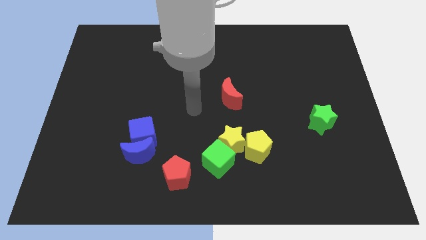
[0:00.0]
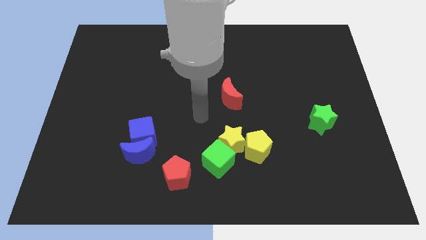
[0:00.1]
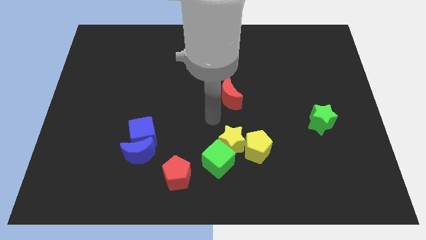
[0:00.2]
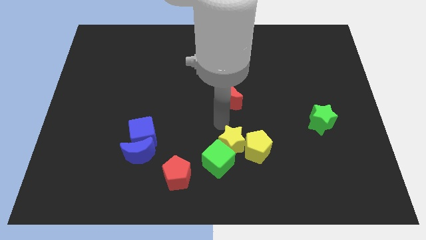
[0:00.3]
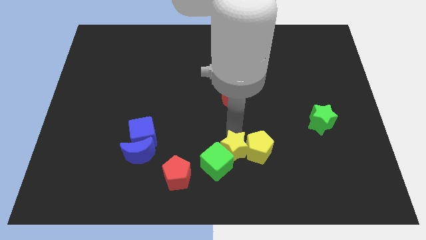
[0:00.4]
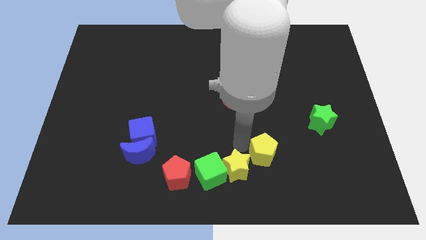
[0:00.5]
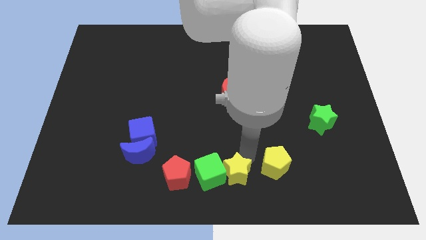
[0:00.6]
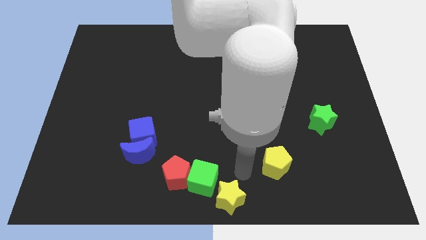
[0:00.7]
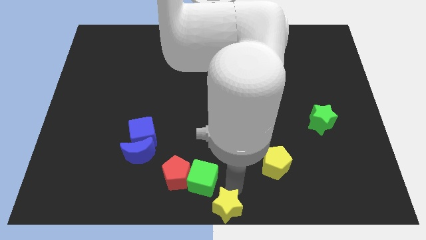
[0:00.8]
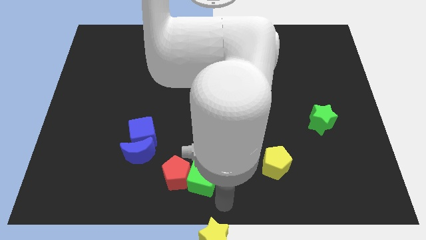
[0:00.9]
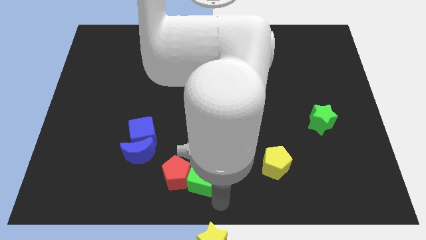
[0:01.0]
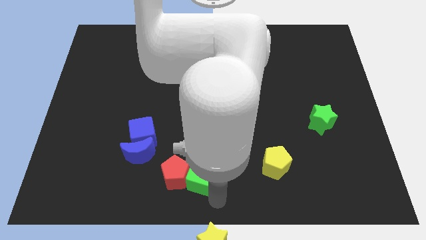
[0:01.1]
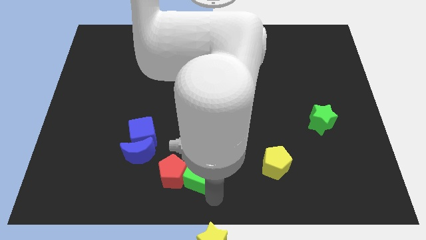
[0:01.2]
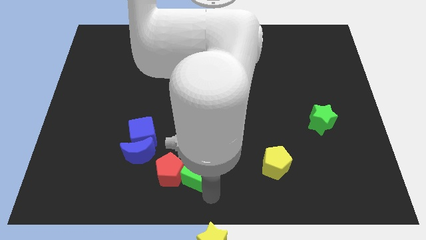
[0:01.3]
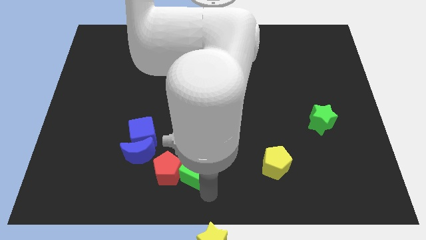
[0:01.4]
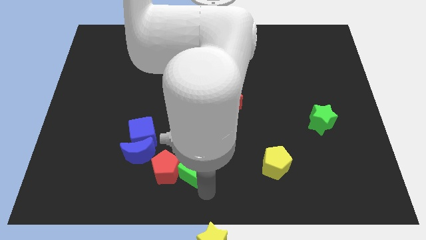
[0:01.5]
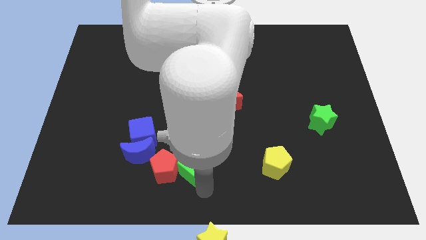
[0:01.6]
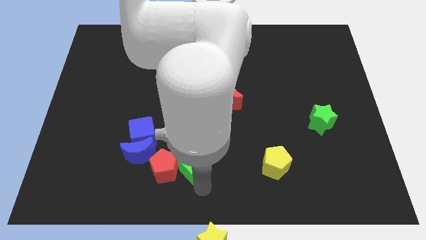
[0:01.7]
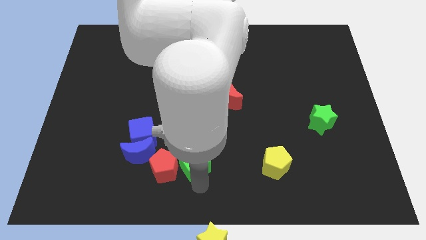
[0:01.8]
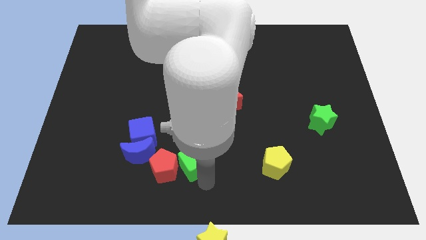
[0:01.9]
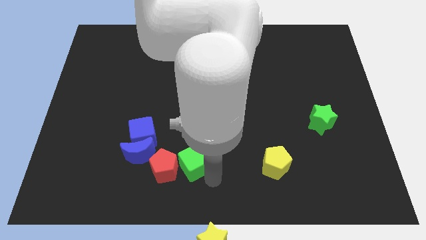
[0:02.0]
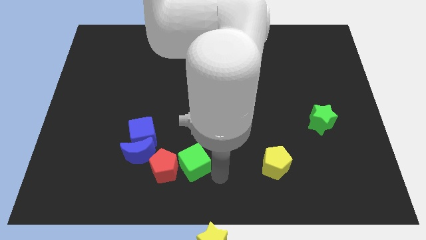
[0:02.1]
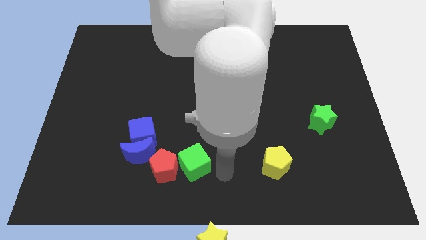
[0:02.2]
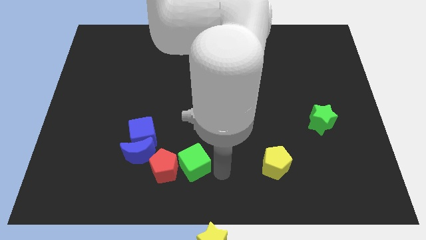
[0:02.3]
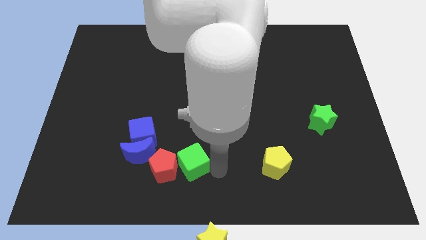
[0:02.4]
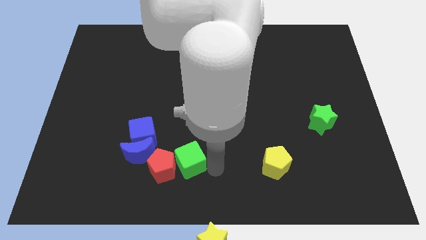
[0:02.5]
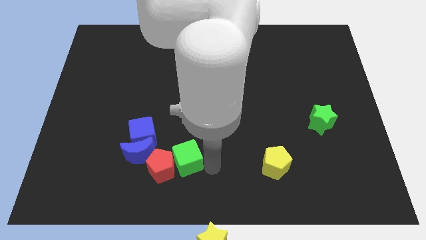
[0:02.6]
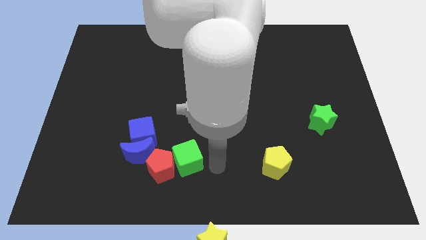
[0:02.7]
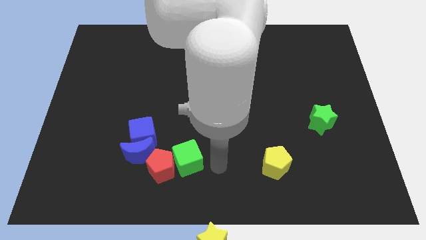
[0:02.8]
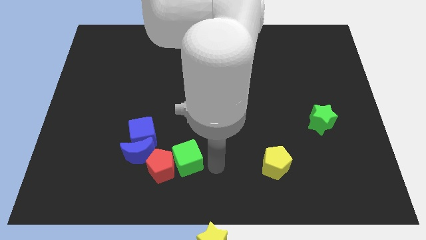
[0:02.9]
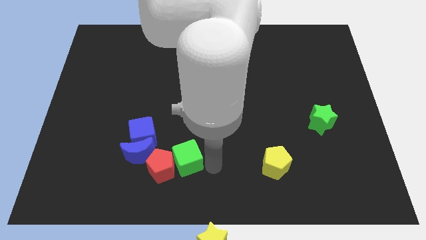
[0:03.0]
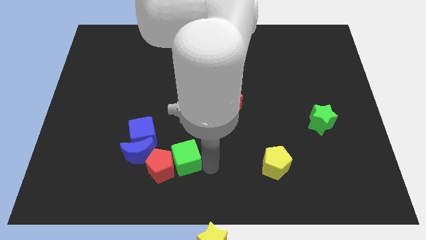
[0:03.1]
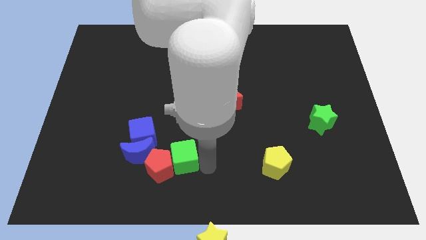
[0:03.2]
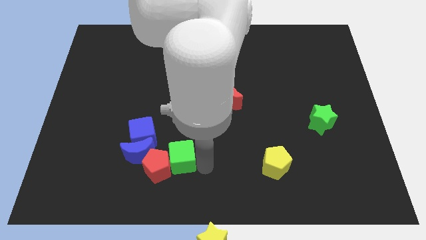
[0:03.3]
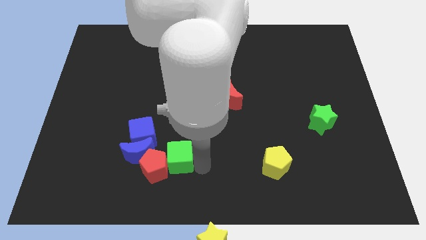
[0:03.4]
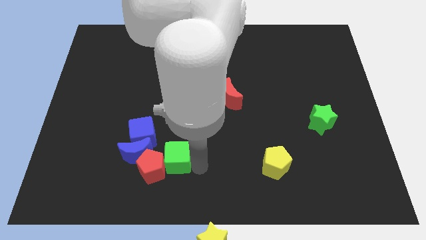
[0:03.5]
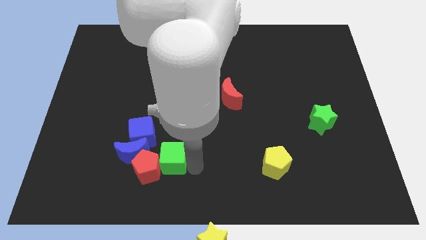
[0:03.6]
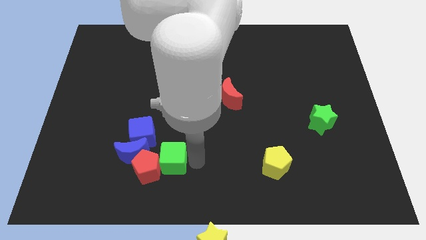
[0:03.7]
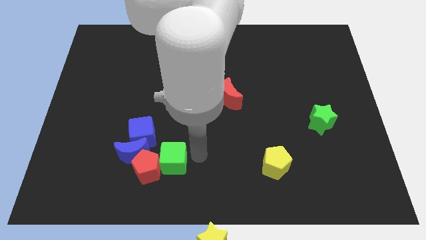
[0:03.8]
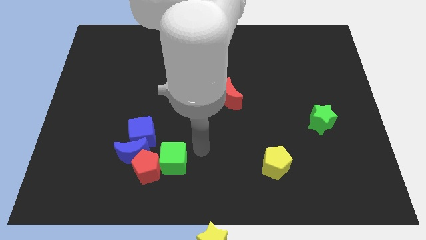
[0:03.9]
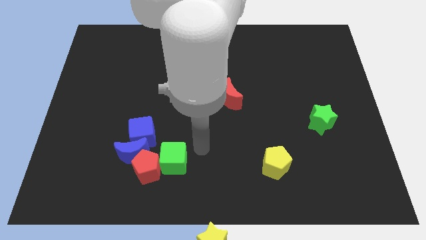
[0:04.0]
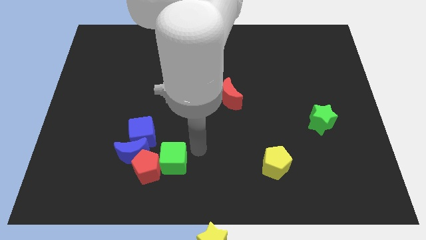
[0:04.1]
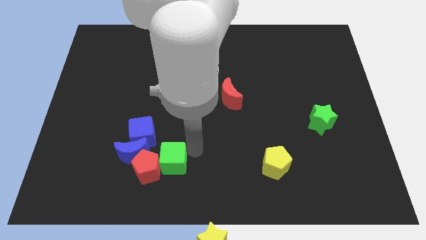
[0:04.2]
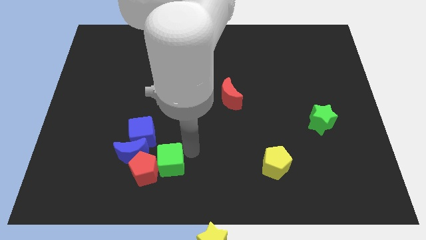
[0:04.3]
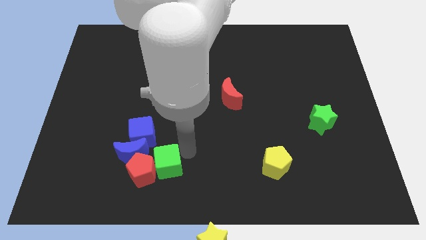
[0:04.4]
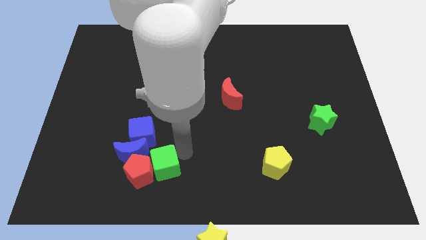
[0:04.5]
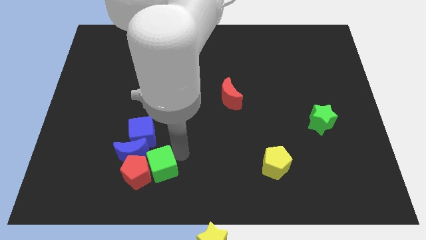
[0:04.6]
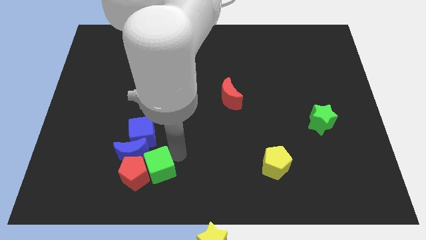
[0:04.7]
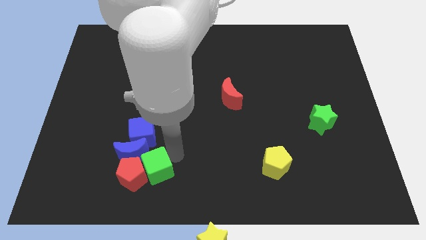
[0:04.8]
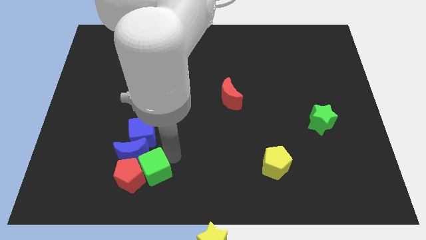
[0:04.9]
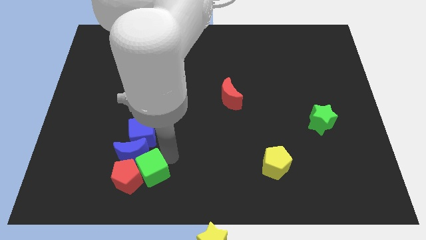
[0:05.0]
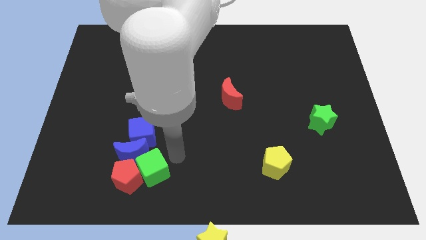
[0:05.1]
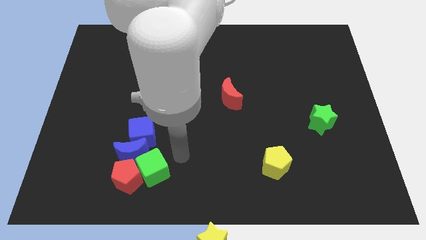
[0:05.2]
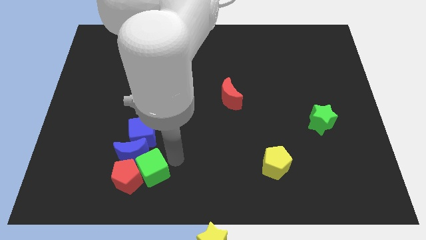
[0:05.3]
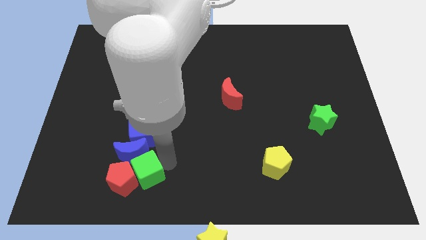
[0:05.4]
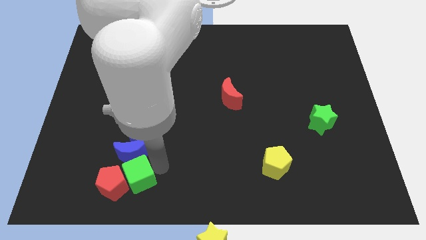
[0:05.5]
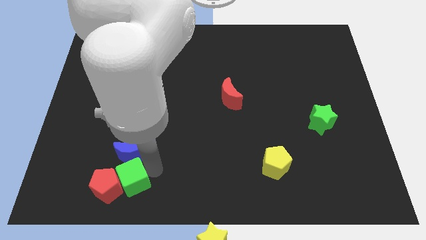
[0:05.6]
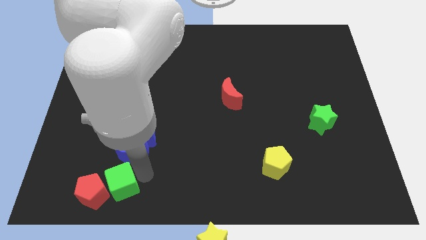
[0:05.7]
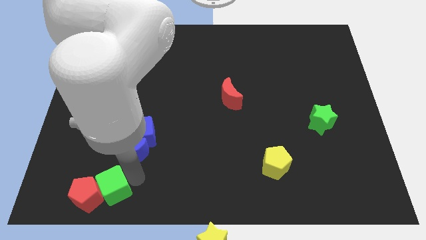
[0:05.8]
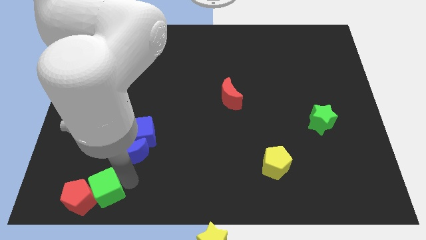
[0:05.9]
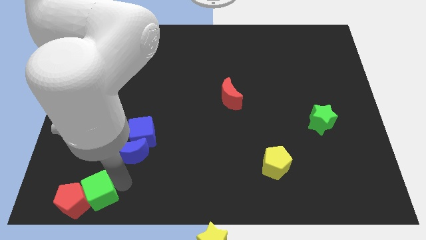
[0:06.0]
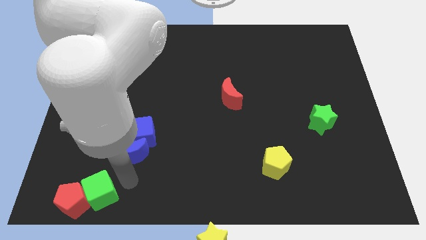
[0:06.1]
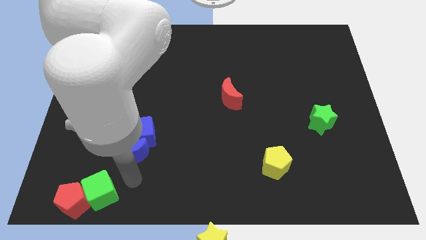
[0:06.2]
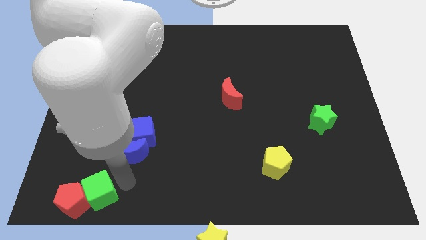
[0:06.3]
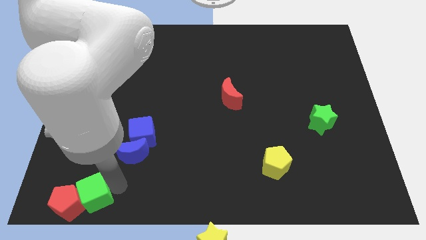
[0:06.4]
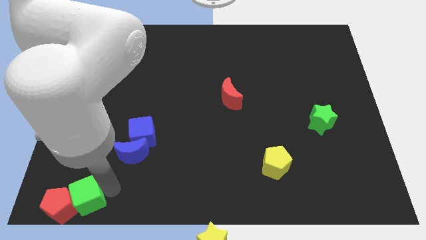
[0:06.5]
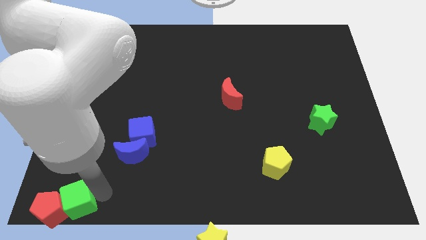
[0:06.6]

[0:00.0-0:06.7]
move the green cube to the bottom left of the board
